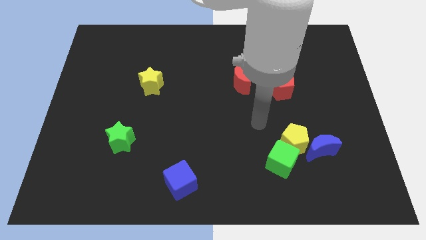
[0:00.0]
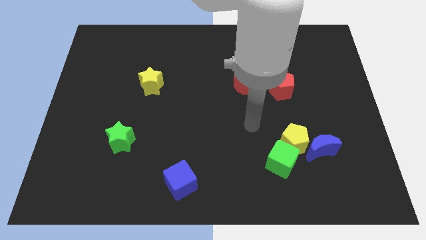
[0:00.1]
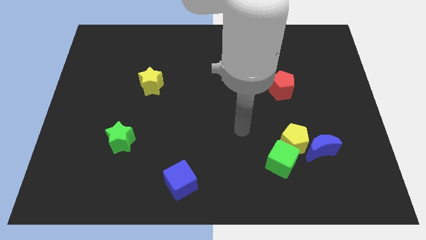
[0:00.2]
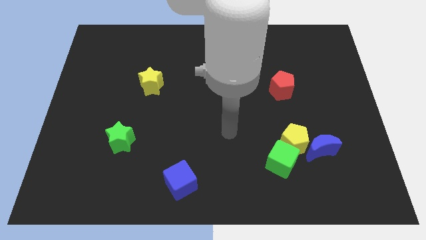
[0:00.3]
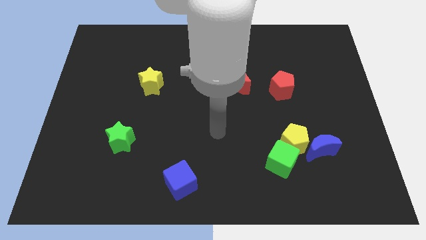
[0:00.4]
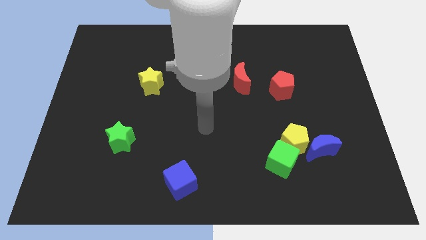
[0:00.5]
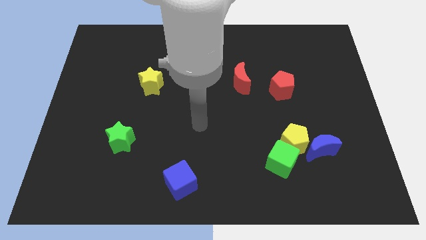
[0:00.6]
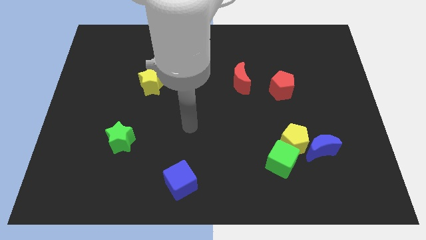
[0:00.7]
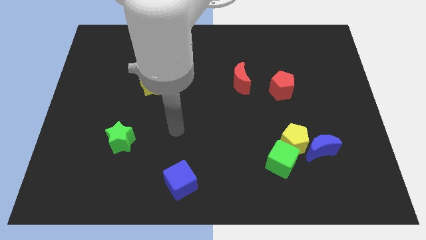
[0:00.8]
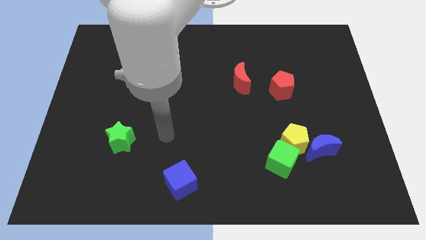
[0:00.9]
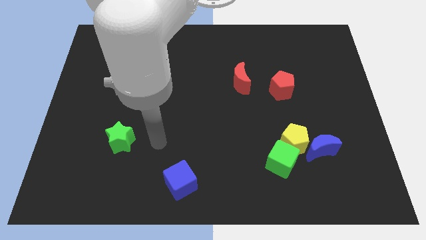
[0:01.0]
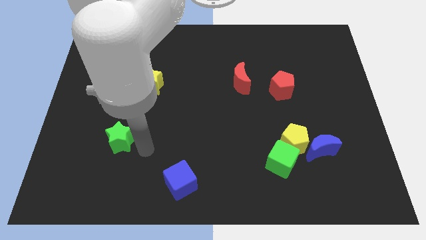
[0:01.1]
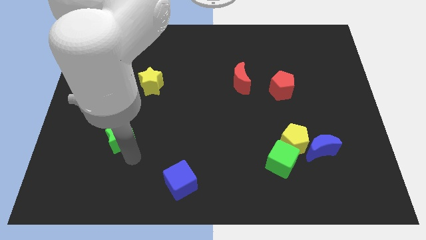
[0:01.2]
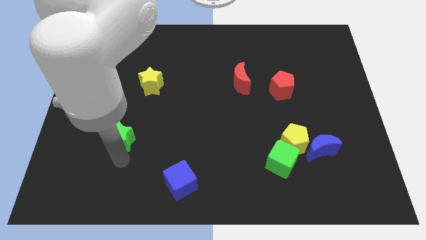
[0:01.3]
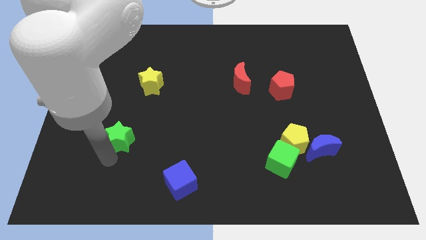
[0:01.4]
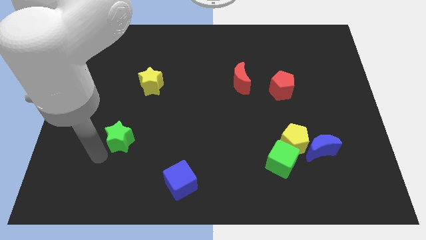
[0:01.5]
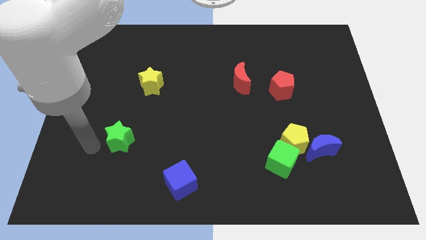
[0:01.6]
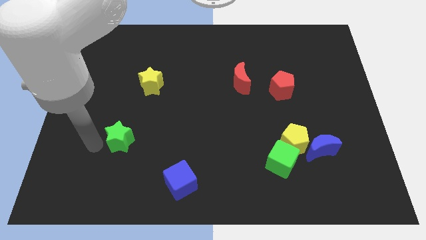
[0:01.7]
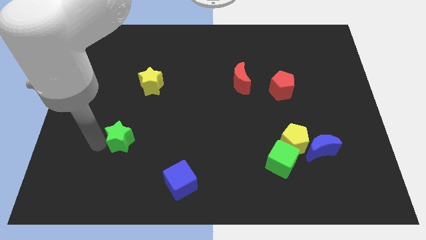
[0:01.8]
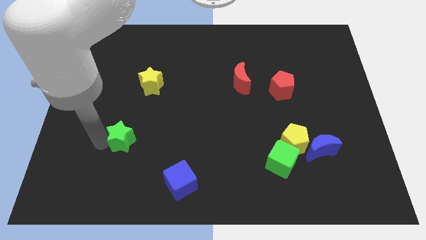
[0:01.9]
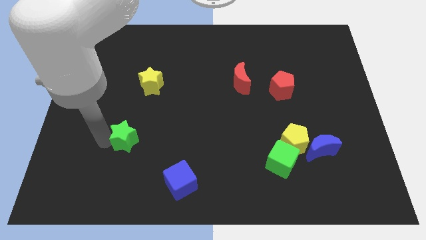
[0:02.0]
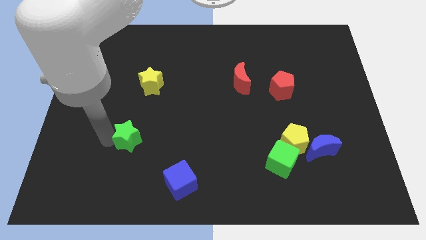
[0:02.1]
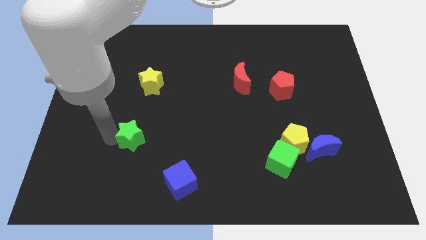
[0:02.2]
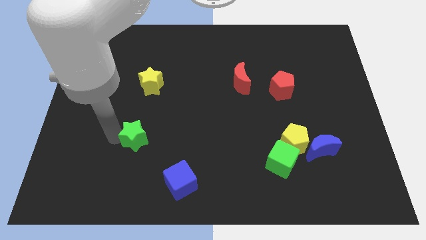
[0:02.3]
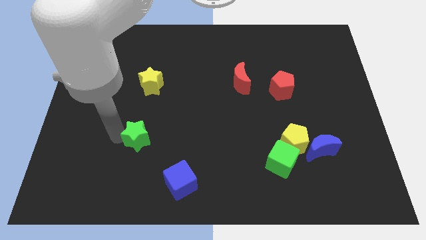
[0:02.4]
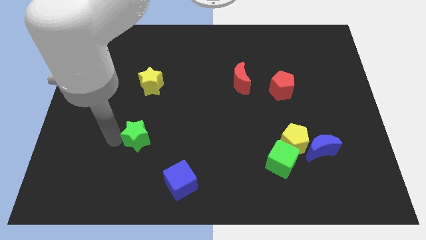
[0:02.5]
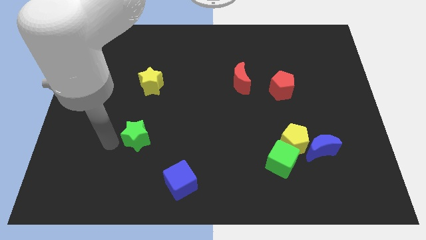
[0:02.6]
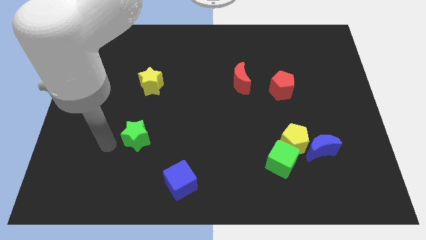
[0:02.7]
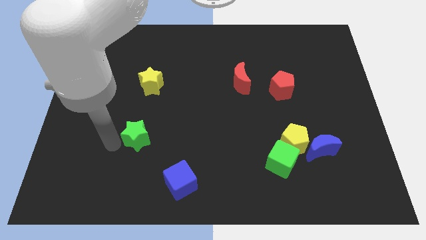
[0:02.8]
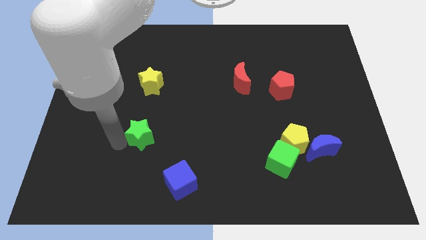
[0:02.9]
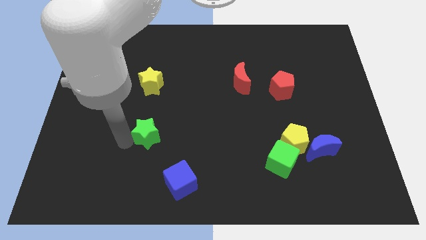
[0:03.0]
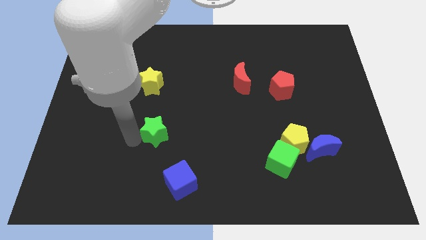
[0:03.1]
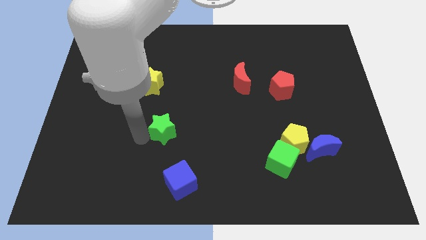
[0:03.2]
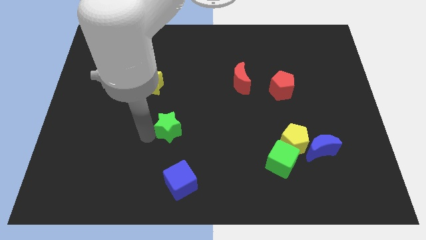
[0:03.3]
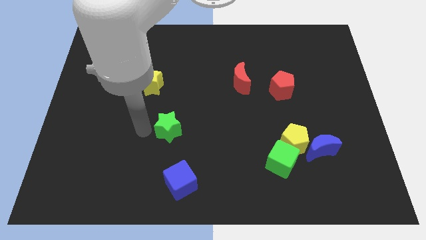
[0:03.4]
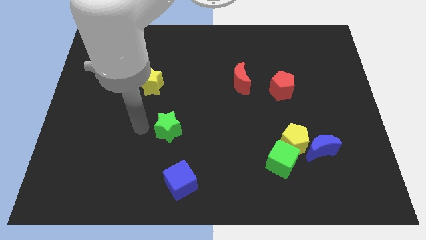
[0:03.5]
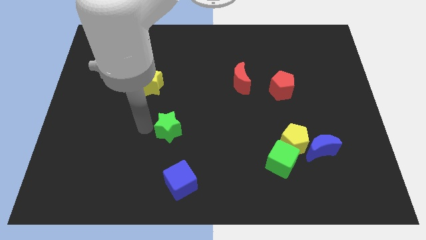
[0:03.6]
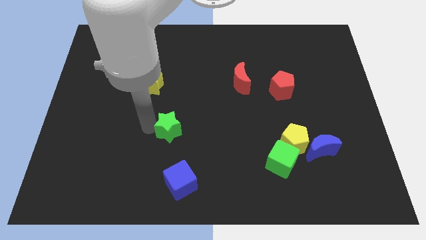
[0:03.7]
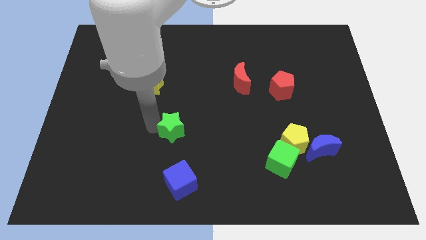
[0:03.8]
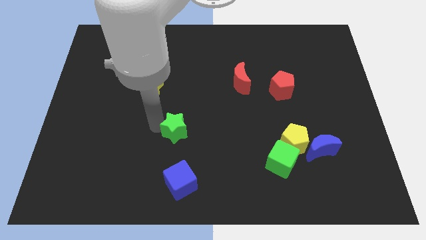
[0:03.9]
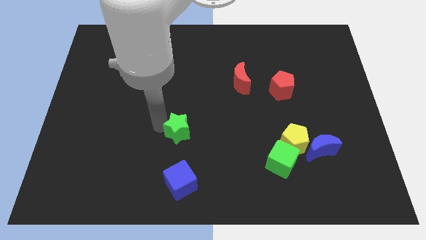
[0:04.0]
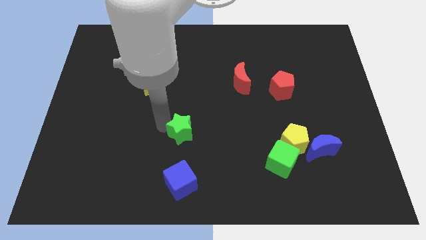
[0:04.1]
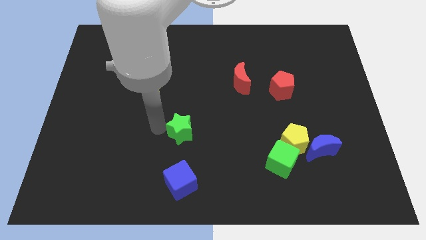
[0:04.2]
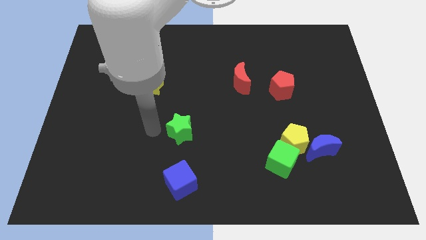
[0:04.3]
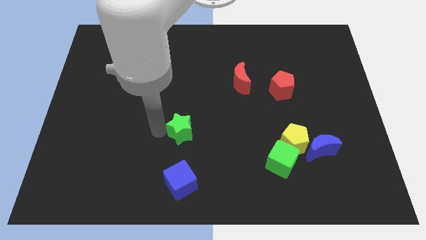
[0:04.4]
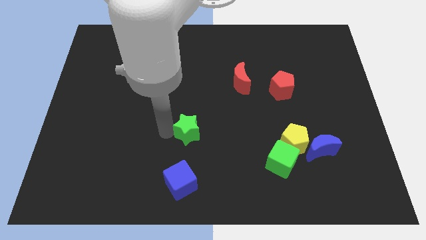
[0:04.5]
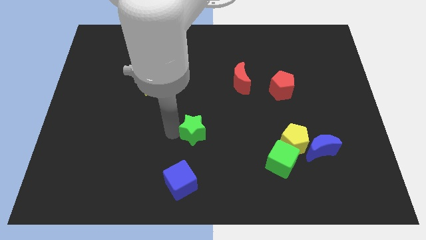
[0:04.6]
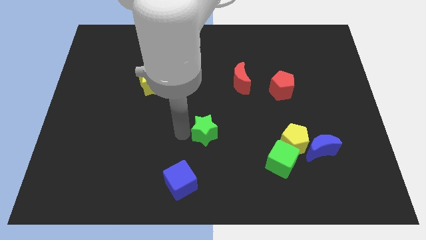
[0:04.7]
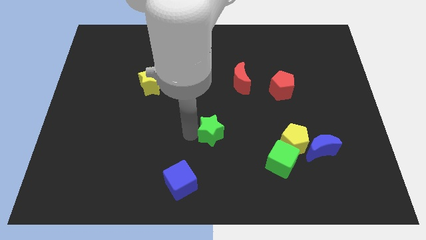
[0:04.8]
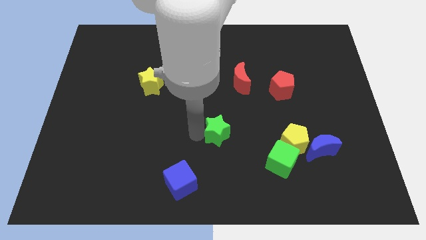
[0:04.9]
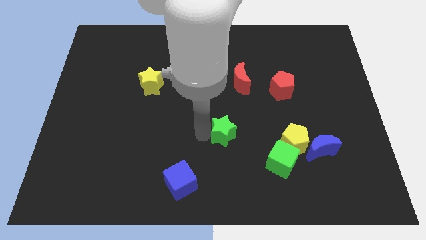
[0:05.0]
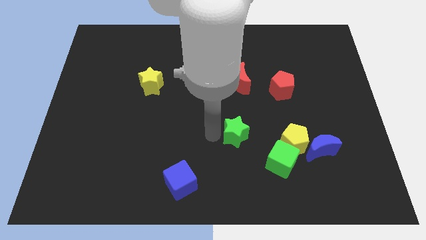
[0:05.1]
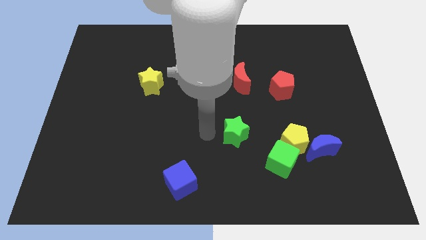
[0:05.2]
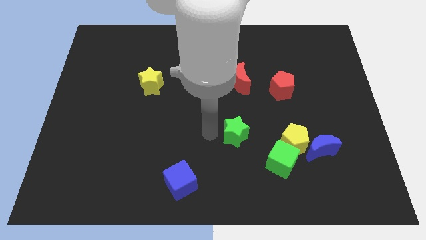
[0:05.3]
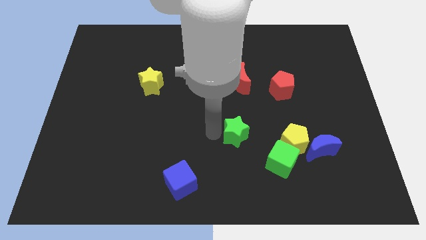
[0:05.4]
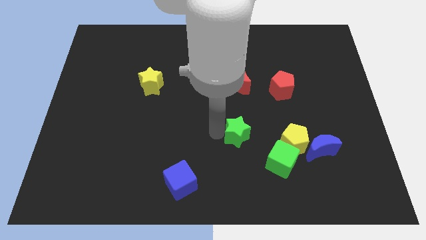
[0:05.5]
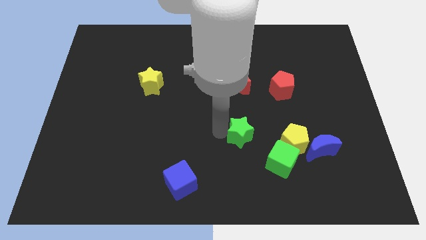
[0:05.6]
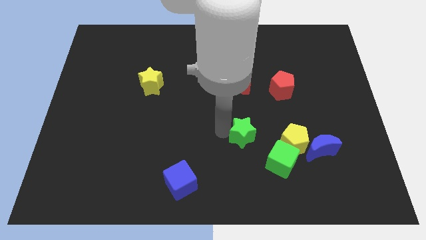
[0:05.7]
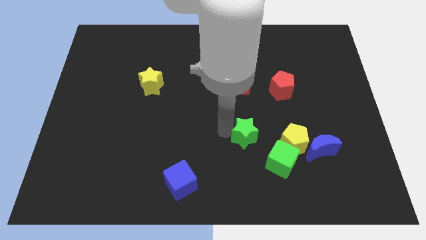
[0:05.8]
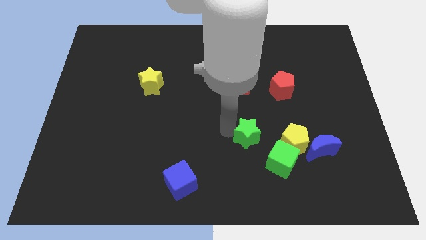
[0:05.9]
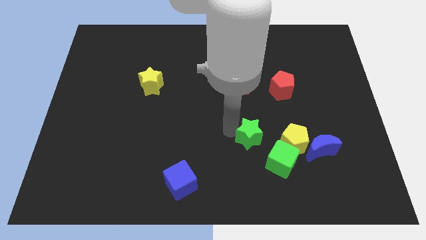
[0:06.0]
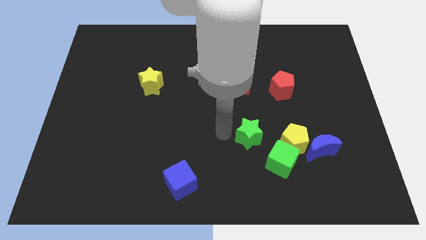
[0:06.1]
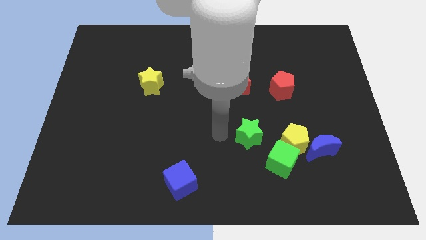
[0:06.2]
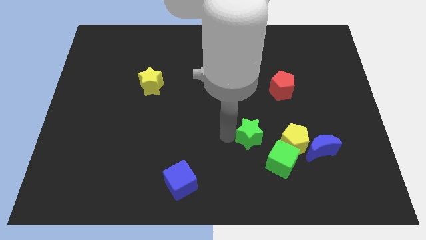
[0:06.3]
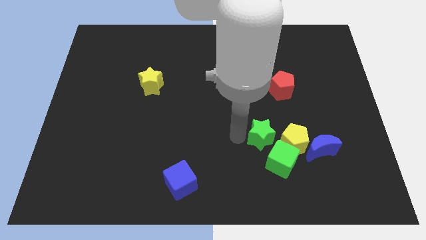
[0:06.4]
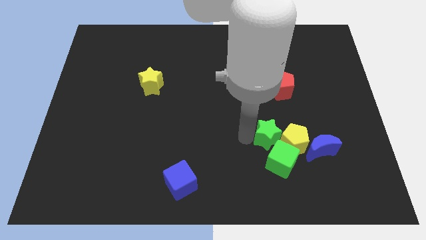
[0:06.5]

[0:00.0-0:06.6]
slide the green star close to the yellow pentagon

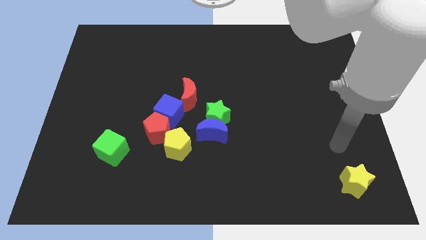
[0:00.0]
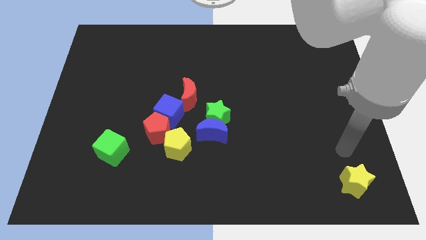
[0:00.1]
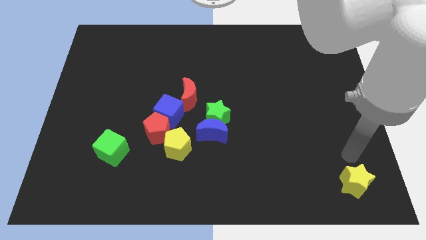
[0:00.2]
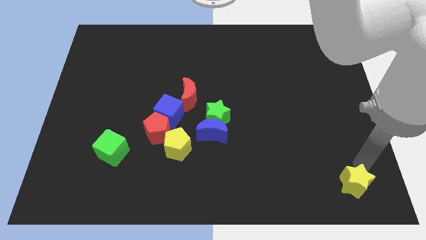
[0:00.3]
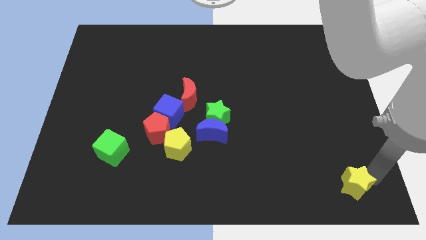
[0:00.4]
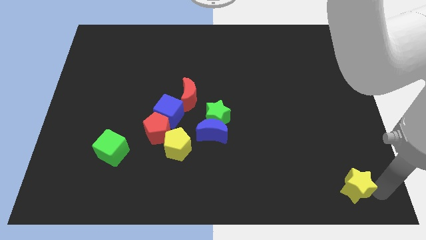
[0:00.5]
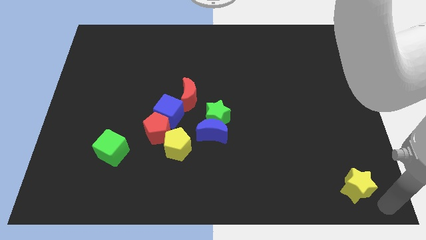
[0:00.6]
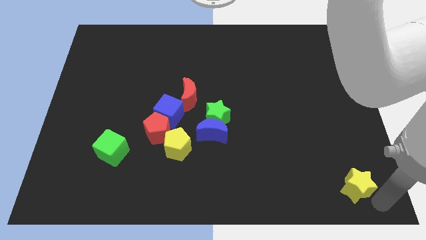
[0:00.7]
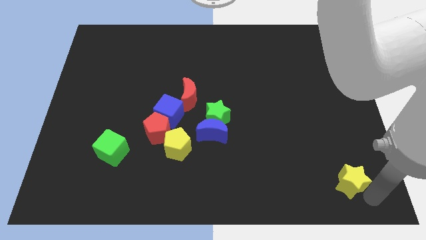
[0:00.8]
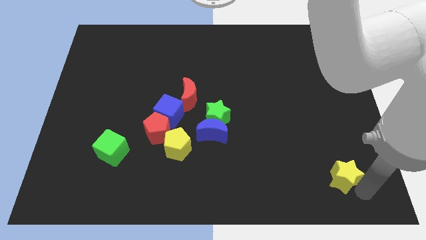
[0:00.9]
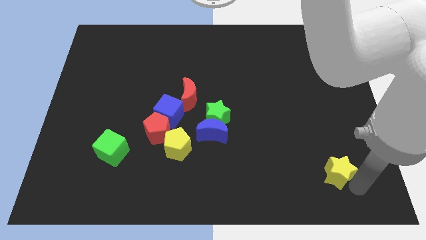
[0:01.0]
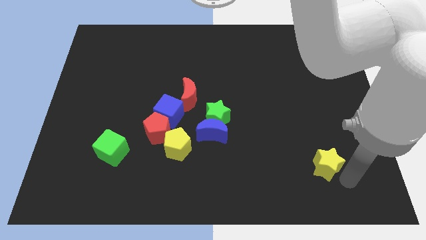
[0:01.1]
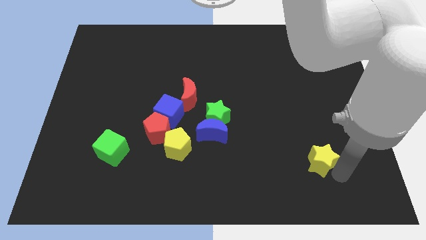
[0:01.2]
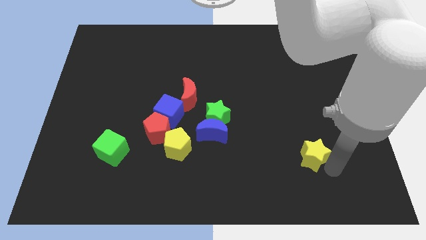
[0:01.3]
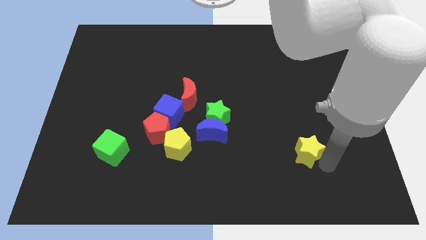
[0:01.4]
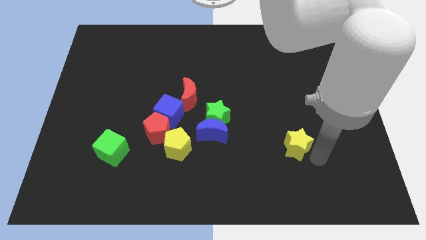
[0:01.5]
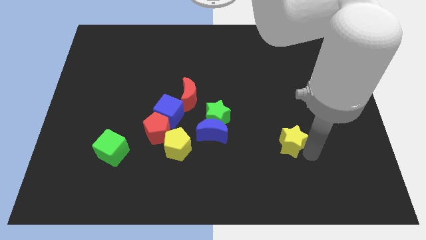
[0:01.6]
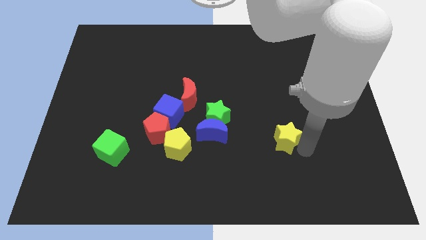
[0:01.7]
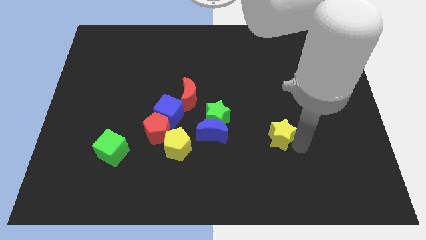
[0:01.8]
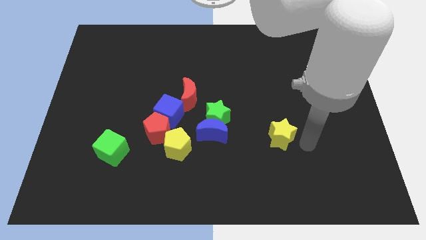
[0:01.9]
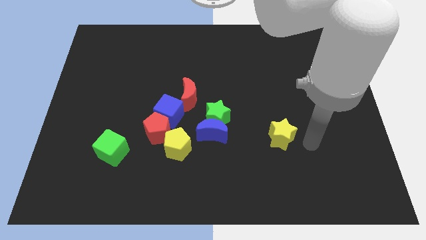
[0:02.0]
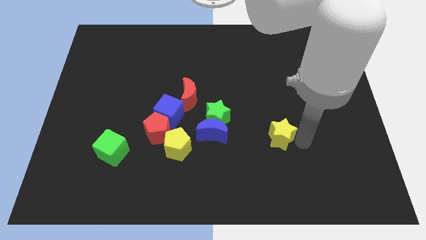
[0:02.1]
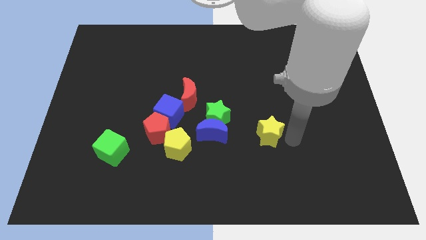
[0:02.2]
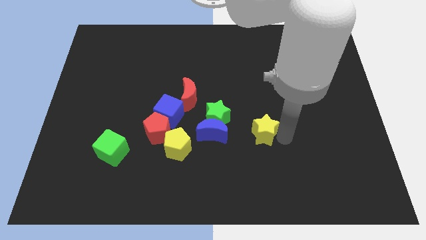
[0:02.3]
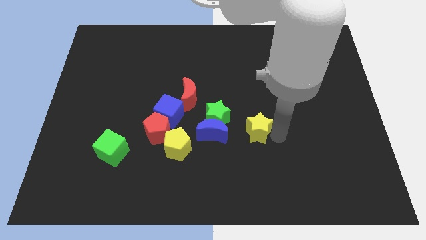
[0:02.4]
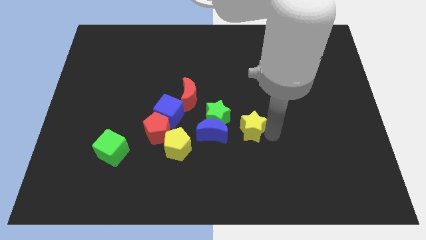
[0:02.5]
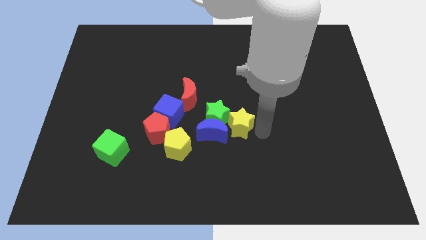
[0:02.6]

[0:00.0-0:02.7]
put the yellow star towards the green star
